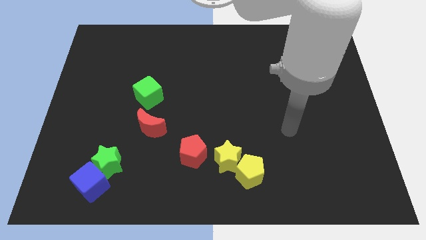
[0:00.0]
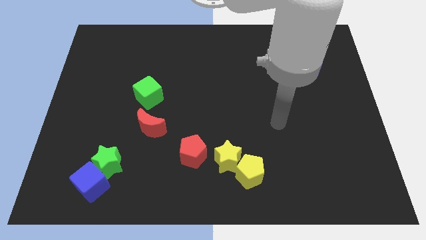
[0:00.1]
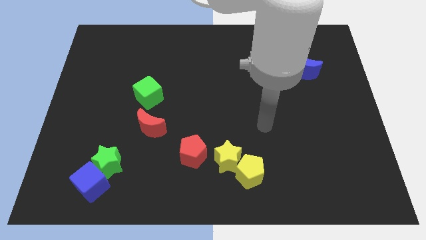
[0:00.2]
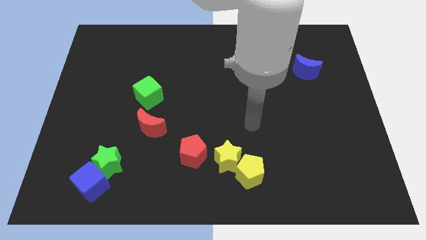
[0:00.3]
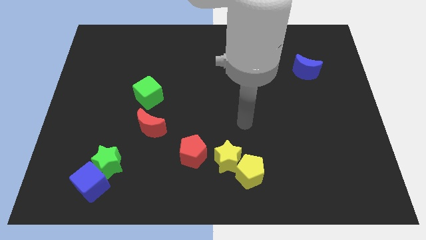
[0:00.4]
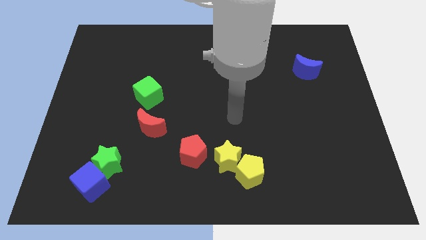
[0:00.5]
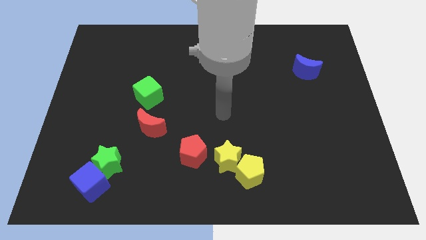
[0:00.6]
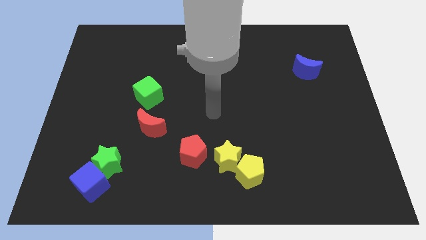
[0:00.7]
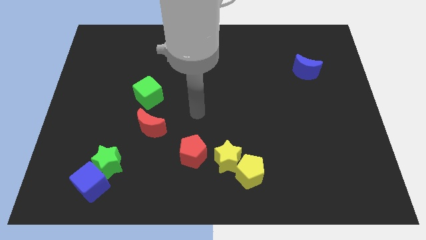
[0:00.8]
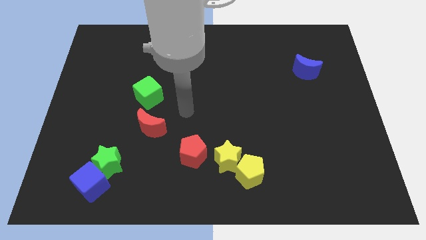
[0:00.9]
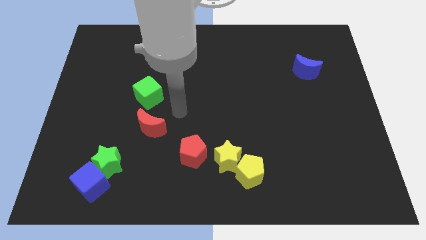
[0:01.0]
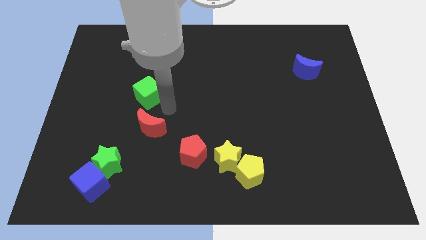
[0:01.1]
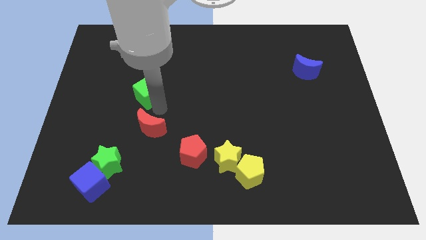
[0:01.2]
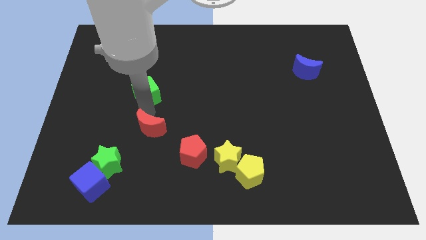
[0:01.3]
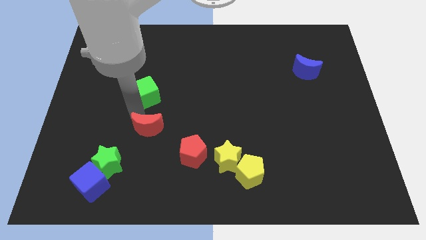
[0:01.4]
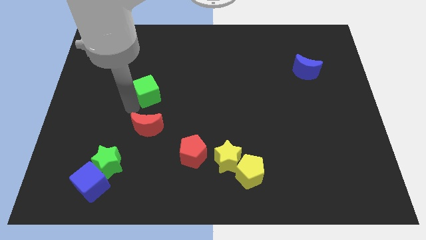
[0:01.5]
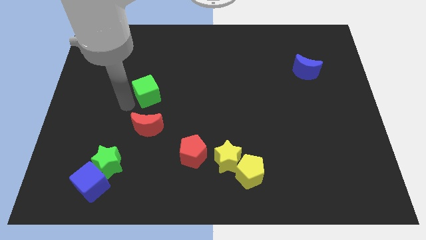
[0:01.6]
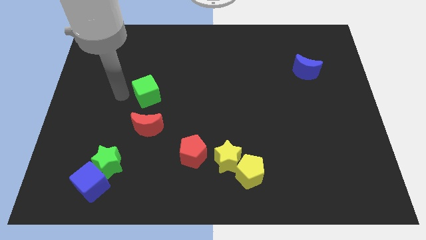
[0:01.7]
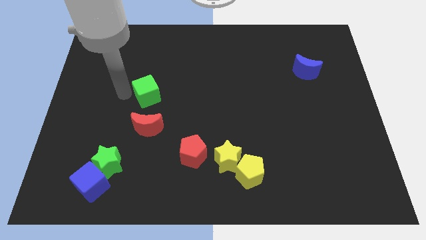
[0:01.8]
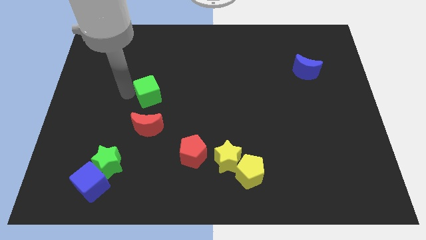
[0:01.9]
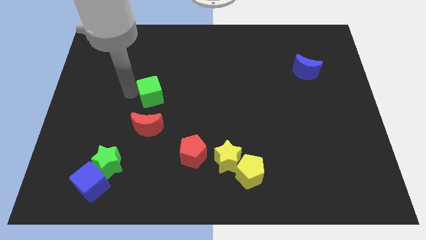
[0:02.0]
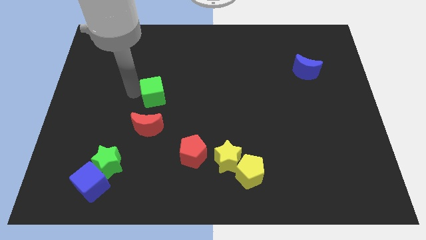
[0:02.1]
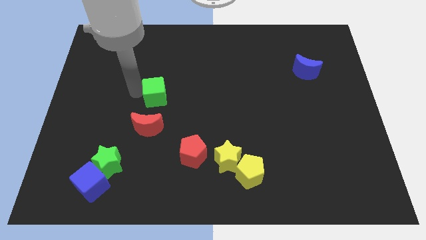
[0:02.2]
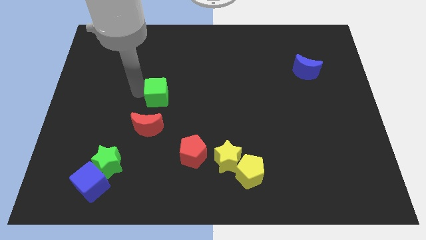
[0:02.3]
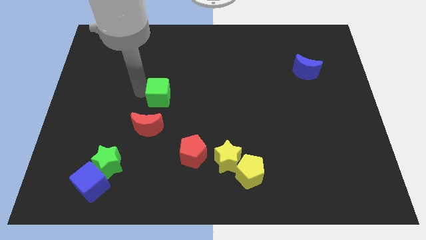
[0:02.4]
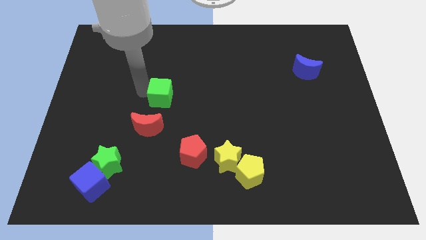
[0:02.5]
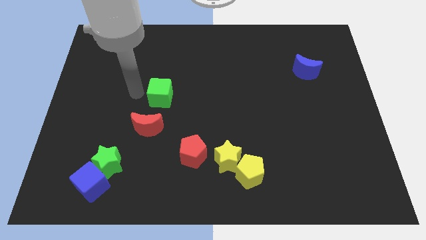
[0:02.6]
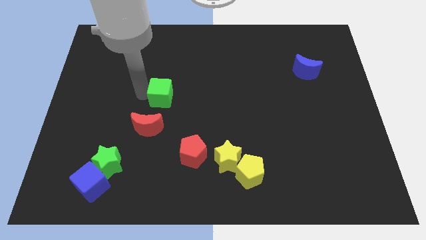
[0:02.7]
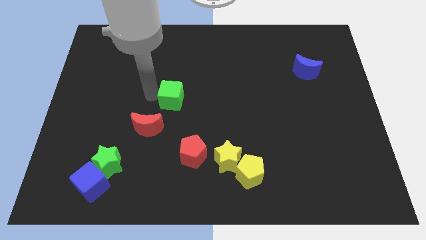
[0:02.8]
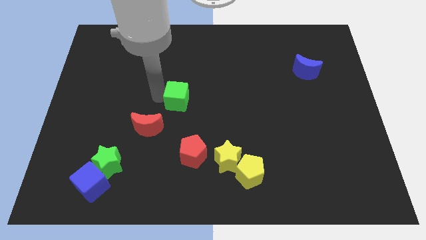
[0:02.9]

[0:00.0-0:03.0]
push the green cube to the right a bit

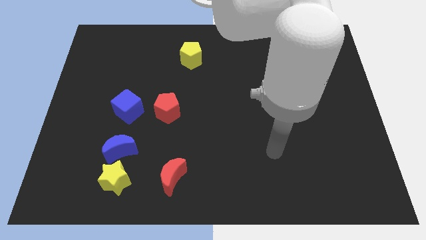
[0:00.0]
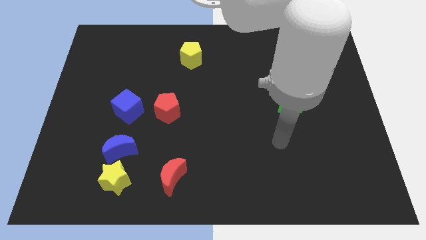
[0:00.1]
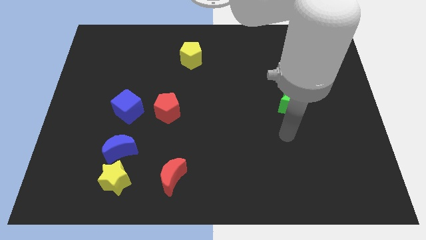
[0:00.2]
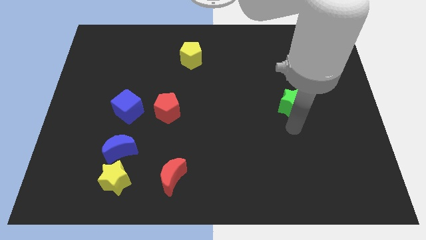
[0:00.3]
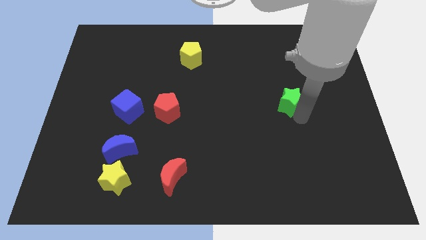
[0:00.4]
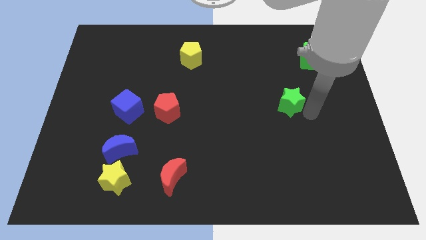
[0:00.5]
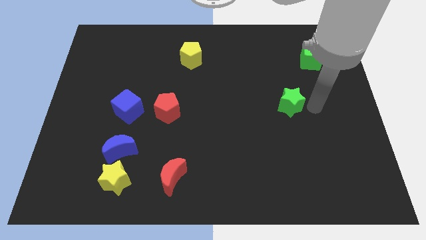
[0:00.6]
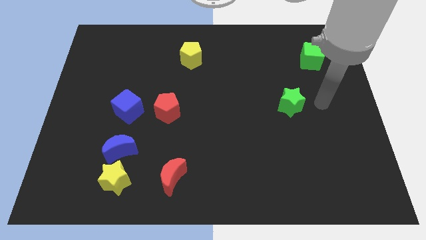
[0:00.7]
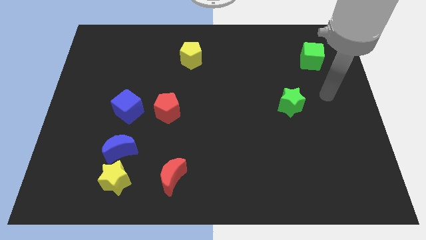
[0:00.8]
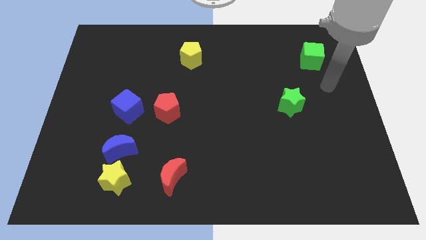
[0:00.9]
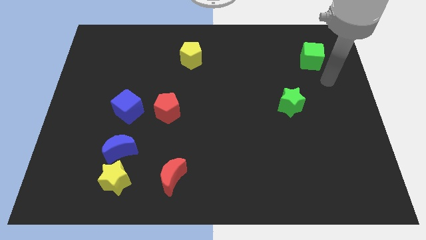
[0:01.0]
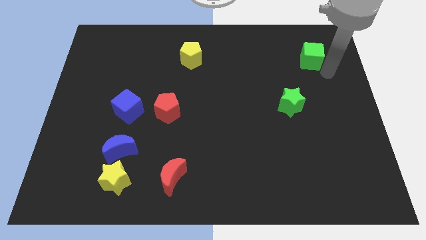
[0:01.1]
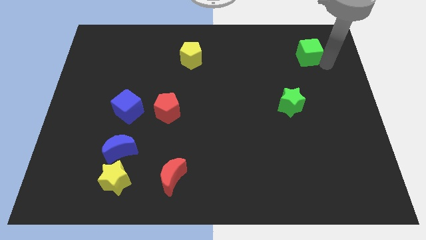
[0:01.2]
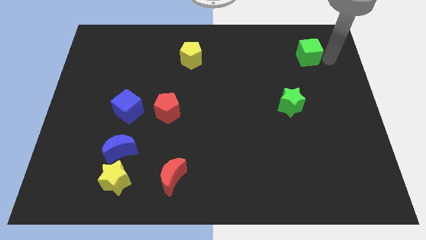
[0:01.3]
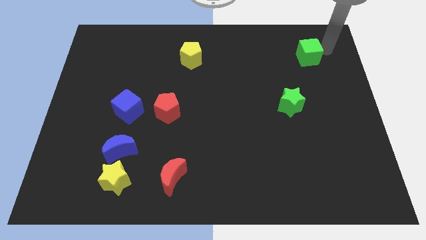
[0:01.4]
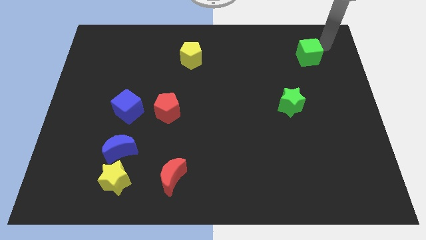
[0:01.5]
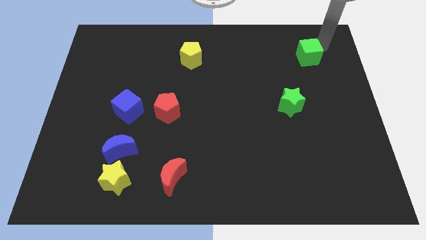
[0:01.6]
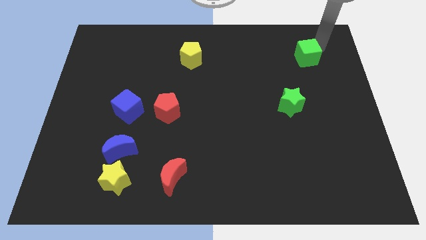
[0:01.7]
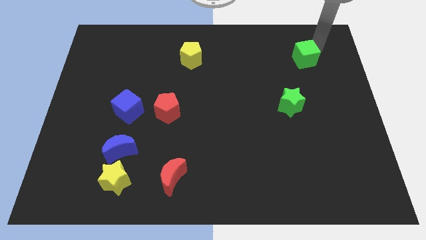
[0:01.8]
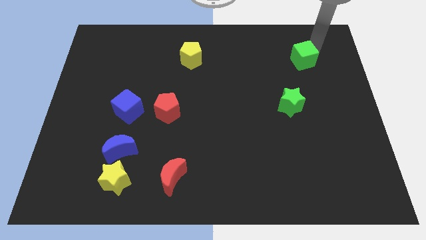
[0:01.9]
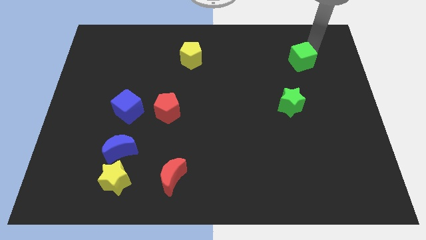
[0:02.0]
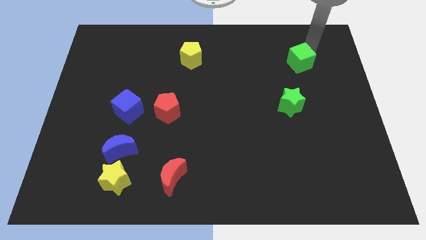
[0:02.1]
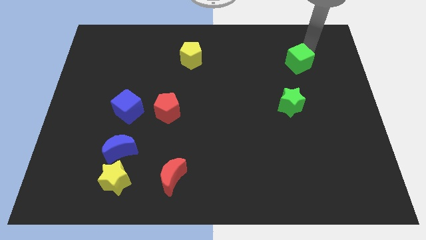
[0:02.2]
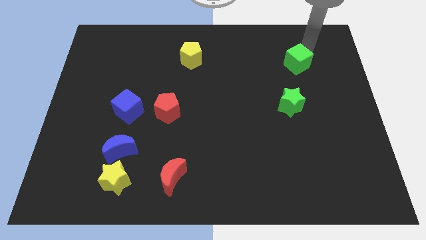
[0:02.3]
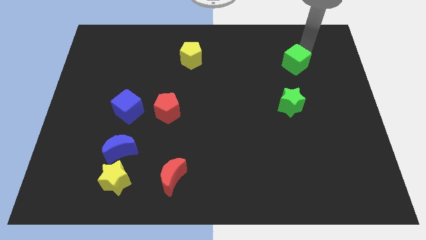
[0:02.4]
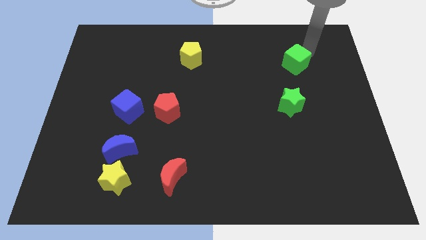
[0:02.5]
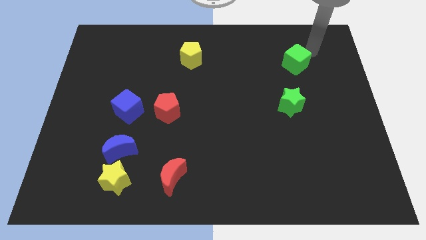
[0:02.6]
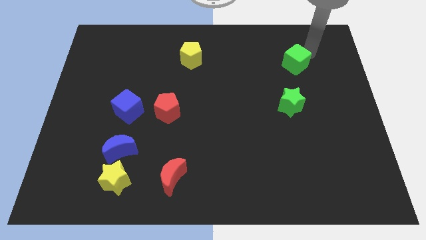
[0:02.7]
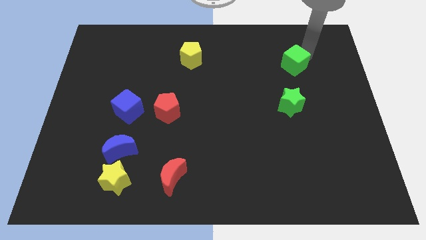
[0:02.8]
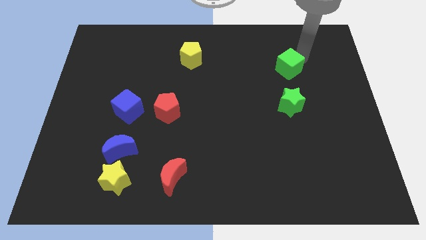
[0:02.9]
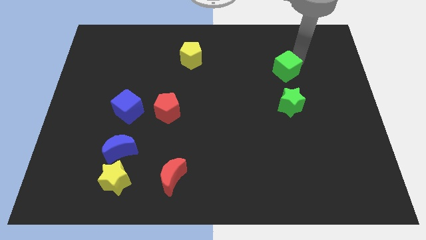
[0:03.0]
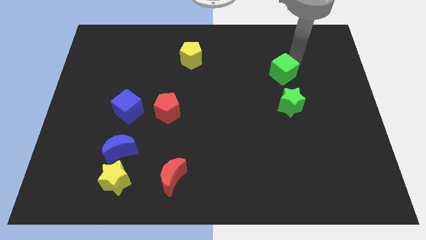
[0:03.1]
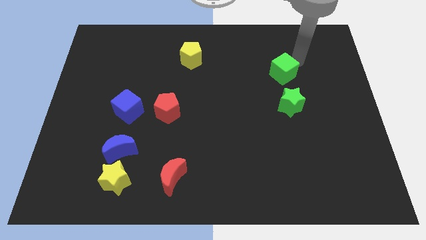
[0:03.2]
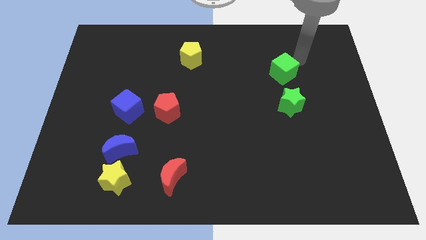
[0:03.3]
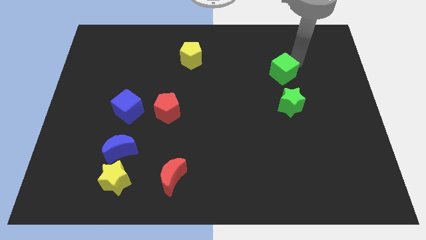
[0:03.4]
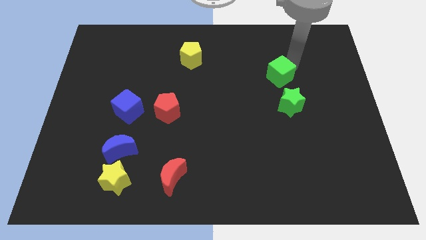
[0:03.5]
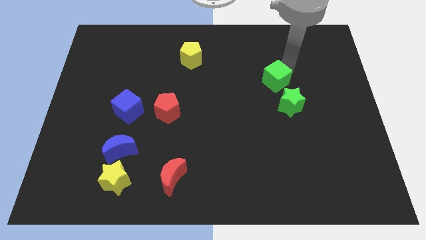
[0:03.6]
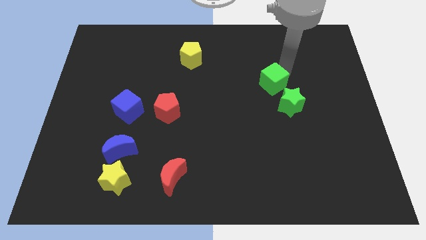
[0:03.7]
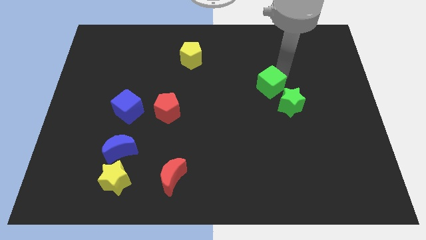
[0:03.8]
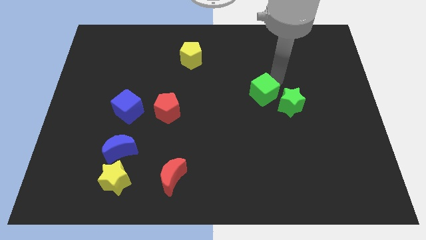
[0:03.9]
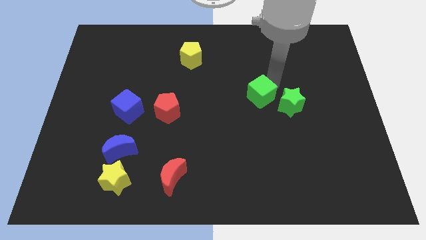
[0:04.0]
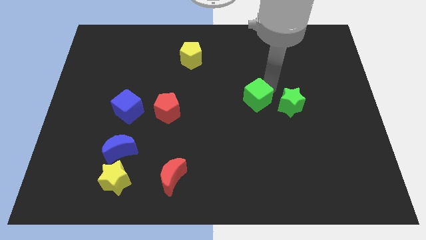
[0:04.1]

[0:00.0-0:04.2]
slide the green cube down and then to the left

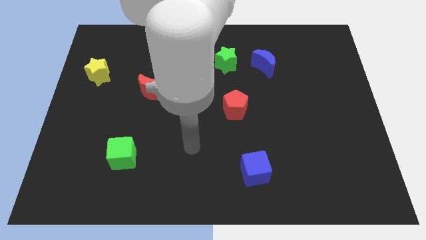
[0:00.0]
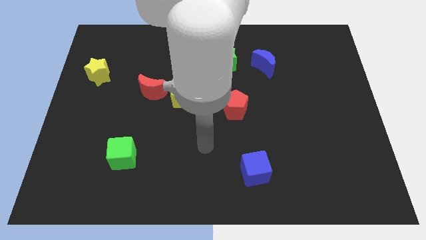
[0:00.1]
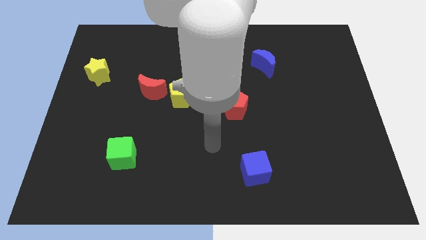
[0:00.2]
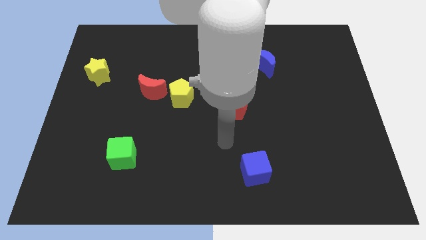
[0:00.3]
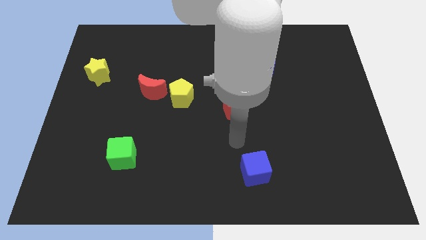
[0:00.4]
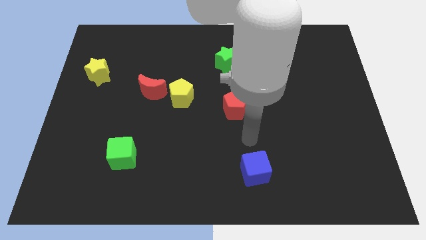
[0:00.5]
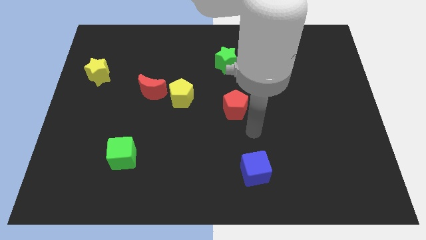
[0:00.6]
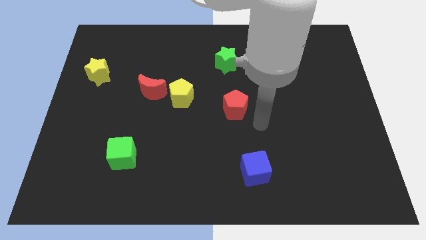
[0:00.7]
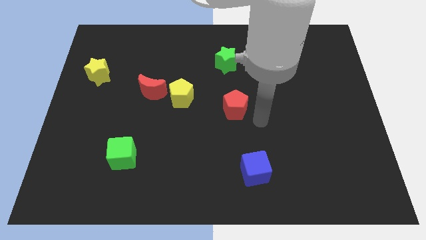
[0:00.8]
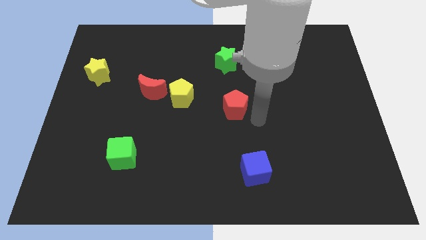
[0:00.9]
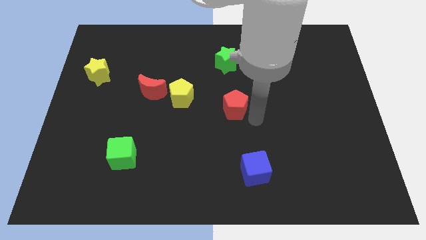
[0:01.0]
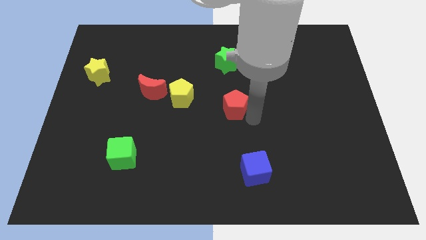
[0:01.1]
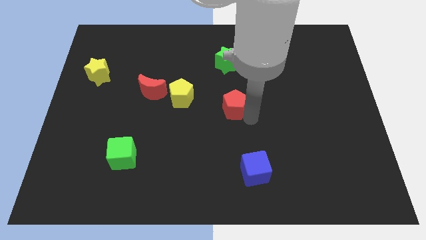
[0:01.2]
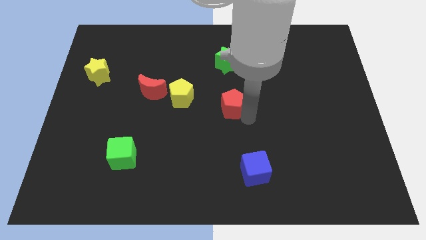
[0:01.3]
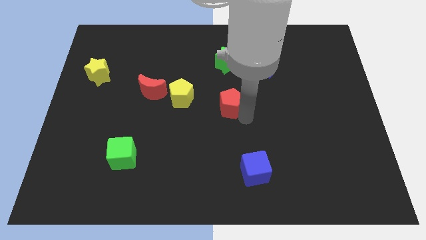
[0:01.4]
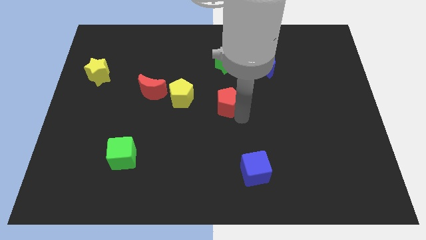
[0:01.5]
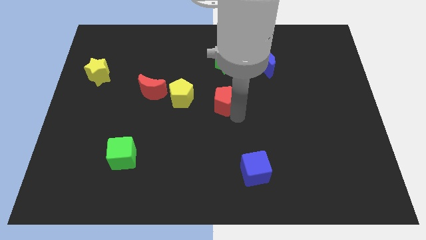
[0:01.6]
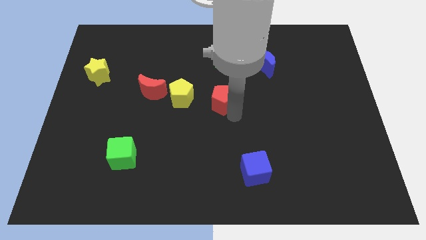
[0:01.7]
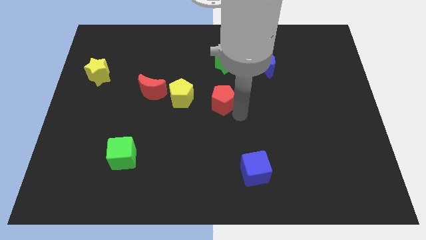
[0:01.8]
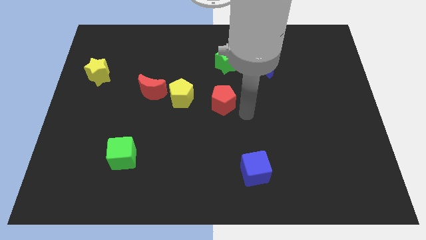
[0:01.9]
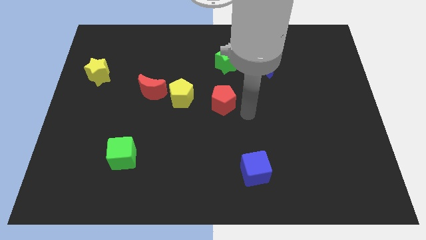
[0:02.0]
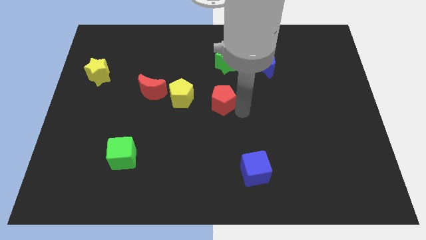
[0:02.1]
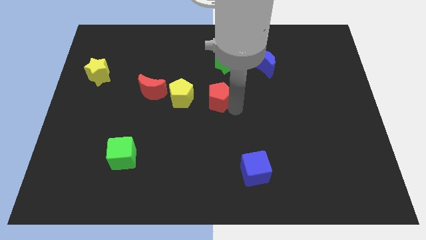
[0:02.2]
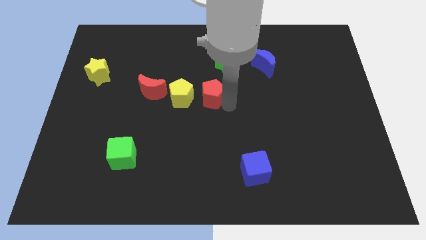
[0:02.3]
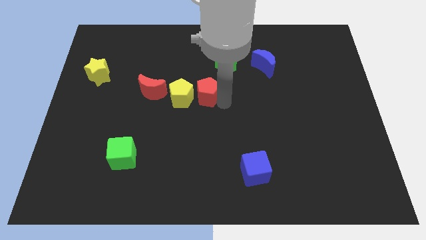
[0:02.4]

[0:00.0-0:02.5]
slightly slide the red pentagon up and left
